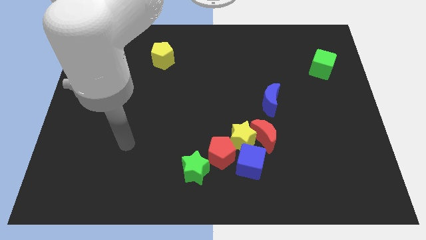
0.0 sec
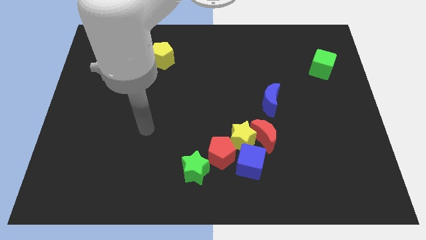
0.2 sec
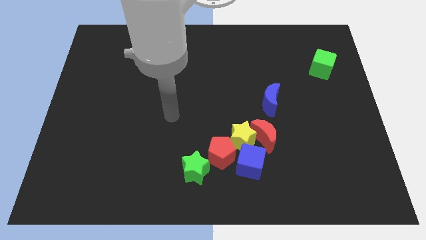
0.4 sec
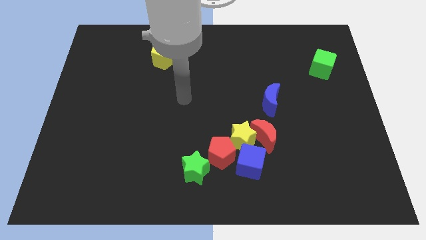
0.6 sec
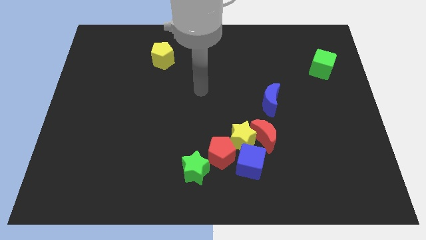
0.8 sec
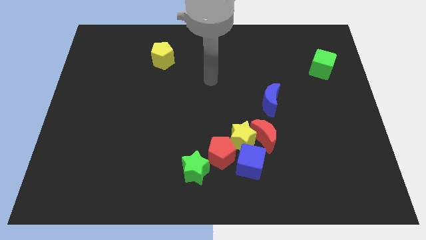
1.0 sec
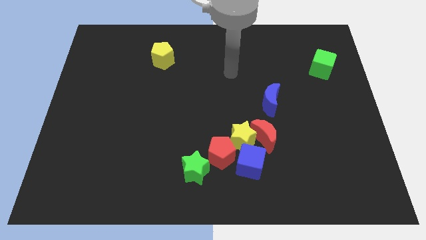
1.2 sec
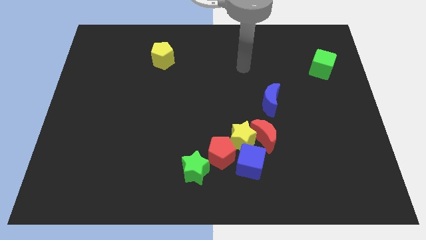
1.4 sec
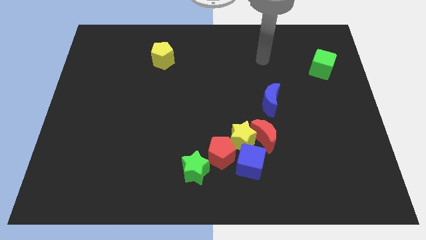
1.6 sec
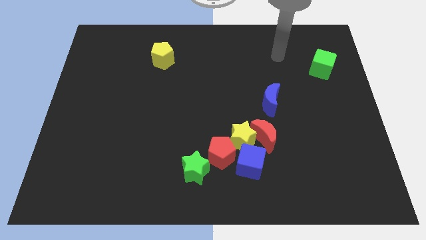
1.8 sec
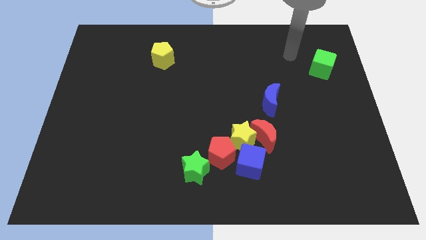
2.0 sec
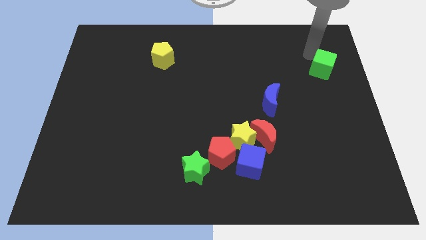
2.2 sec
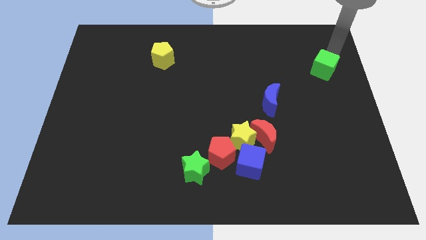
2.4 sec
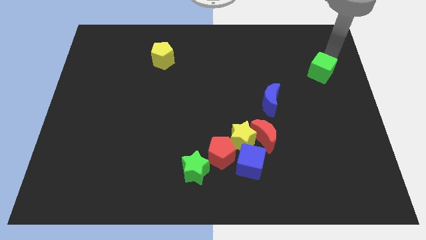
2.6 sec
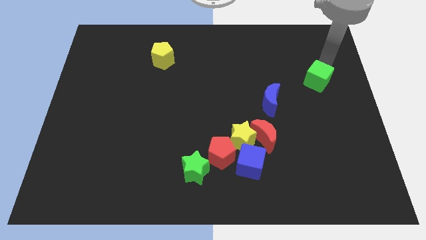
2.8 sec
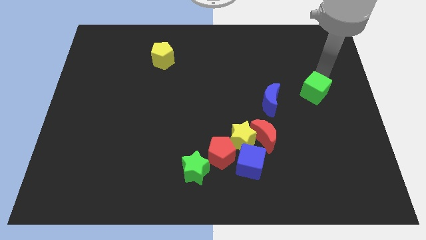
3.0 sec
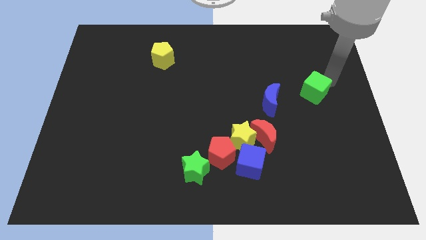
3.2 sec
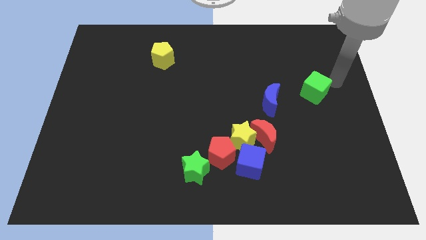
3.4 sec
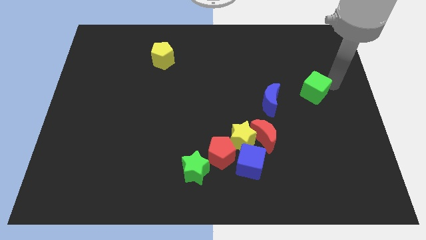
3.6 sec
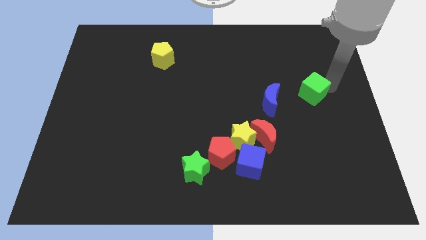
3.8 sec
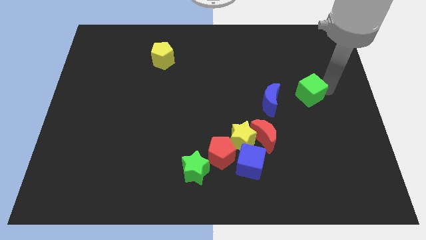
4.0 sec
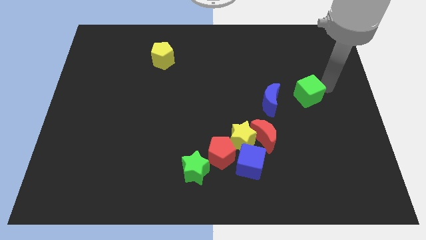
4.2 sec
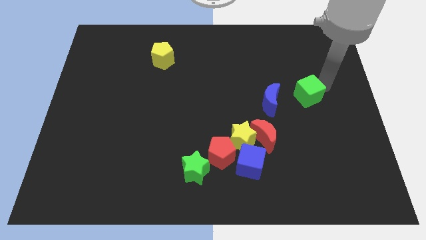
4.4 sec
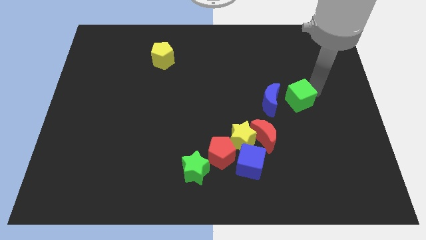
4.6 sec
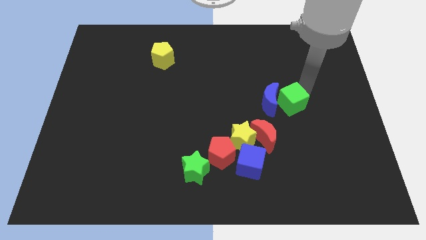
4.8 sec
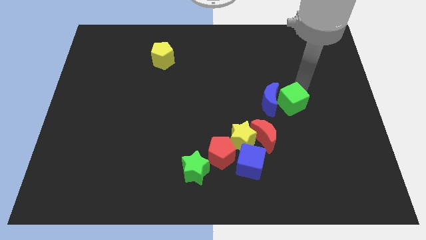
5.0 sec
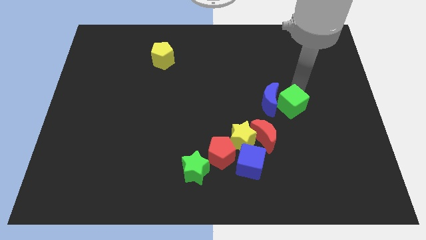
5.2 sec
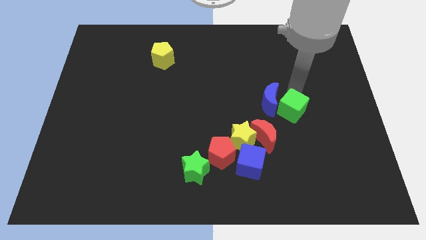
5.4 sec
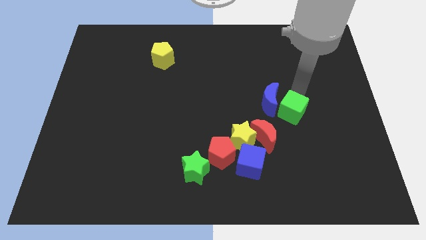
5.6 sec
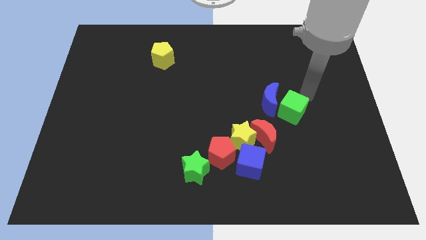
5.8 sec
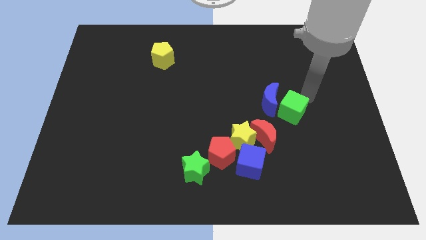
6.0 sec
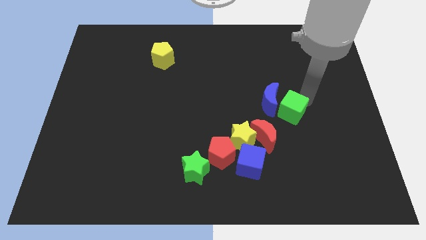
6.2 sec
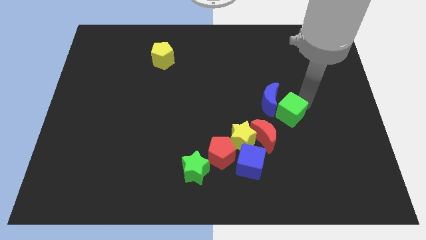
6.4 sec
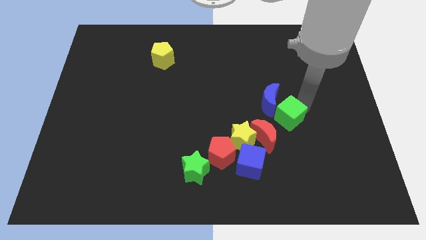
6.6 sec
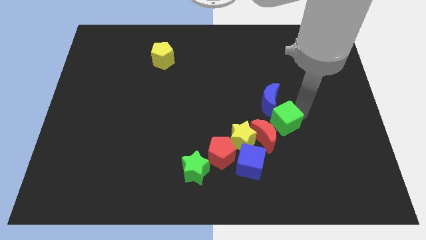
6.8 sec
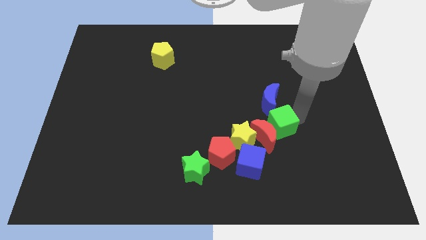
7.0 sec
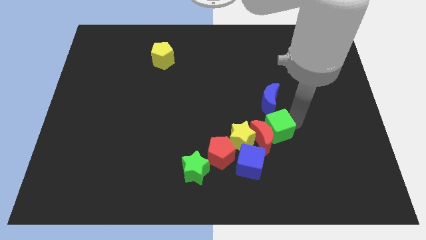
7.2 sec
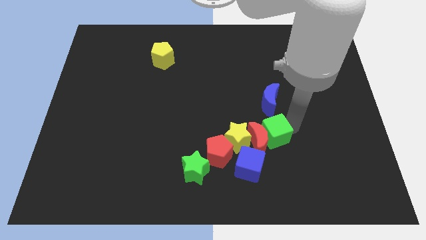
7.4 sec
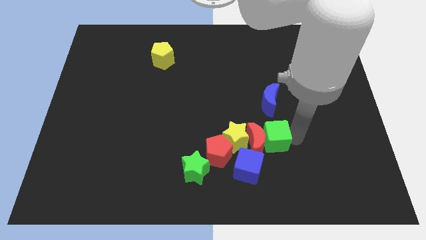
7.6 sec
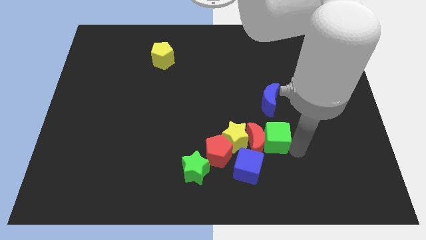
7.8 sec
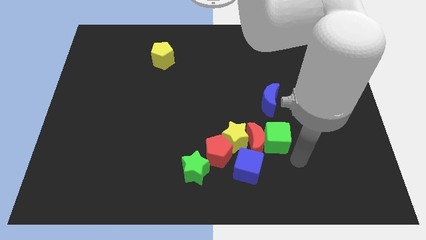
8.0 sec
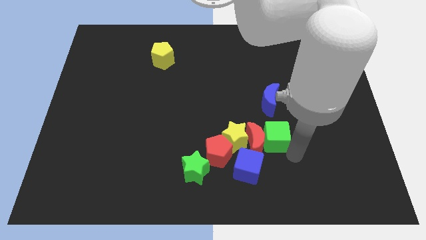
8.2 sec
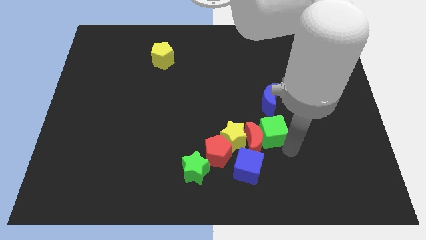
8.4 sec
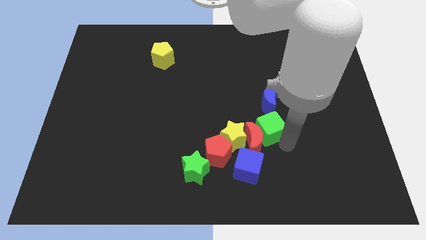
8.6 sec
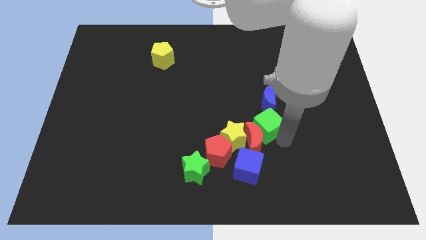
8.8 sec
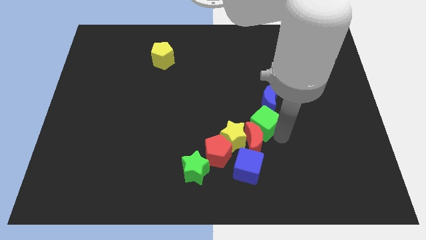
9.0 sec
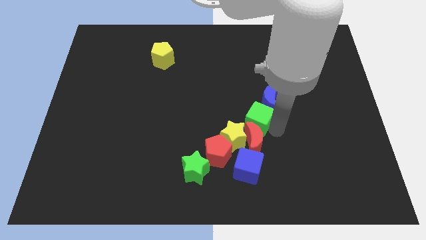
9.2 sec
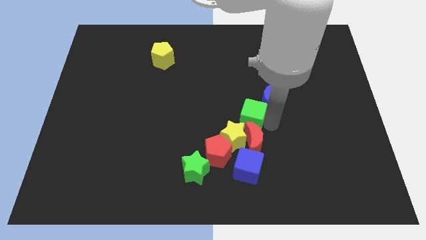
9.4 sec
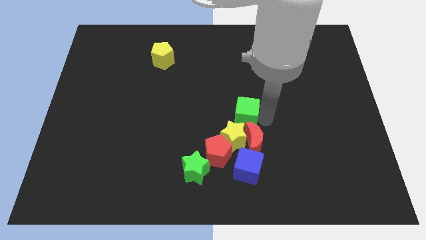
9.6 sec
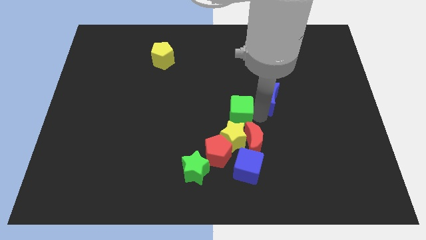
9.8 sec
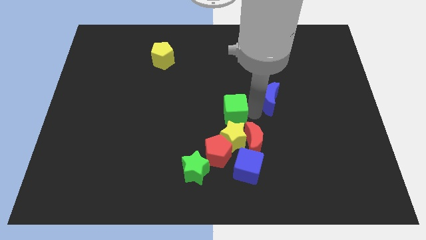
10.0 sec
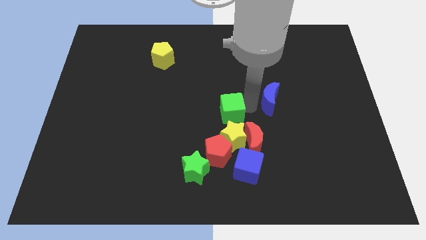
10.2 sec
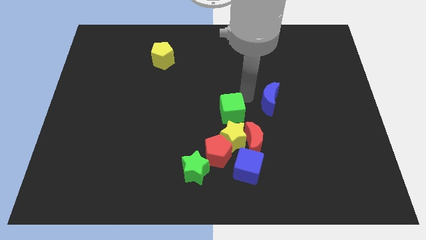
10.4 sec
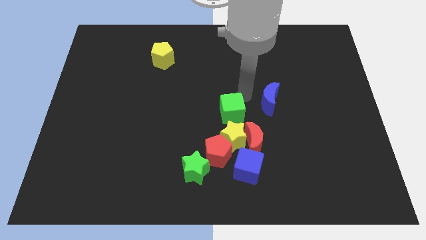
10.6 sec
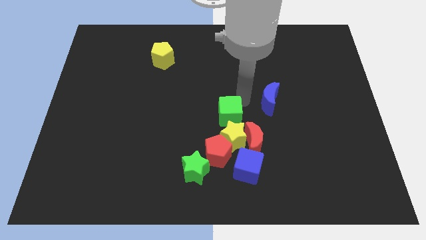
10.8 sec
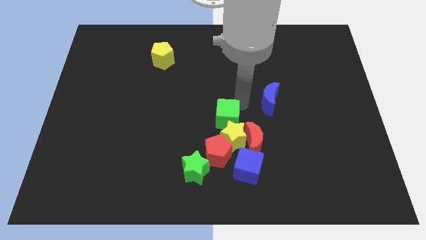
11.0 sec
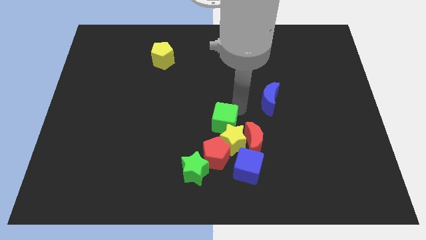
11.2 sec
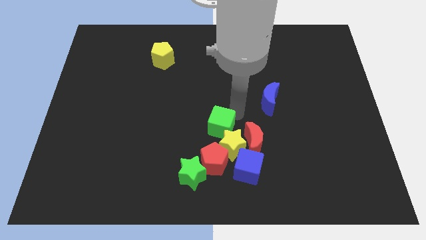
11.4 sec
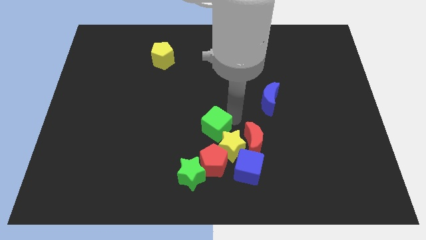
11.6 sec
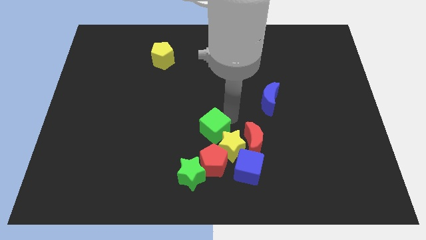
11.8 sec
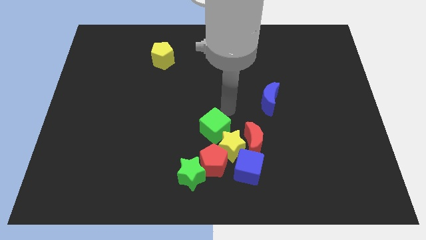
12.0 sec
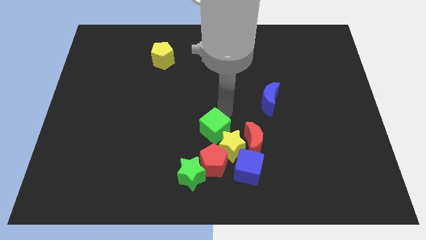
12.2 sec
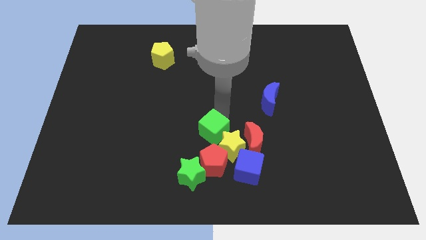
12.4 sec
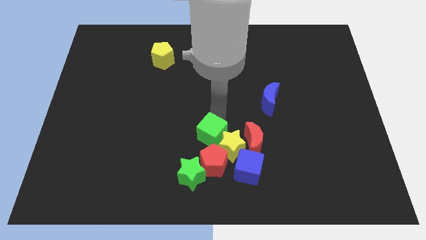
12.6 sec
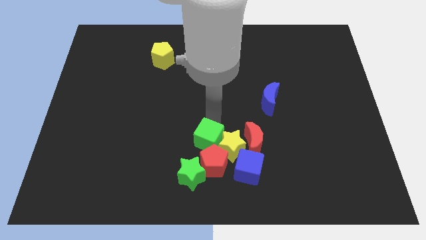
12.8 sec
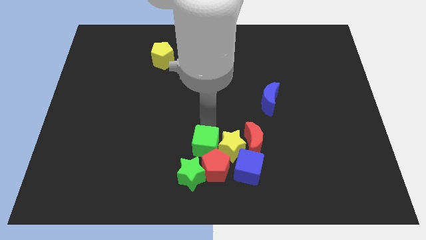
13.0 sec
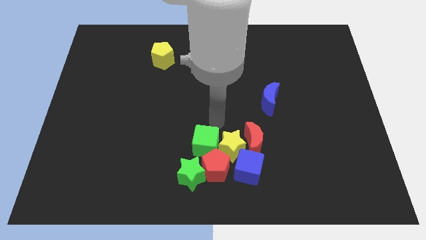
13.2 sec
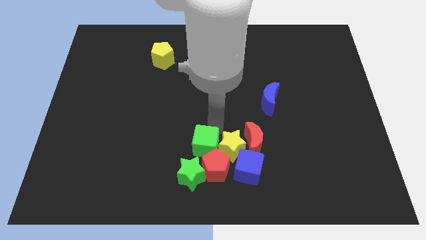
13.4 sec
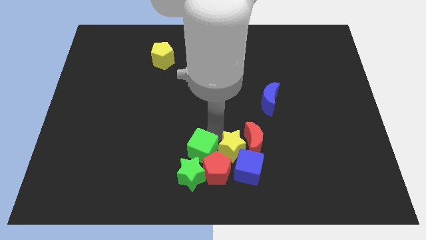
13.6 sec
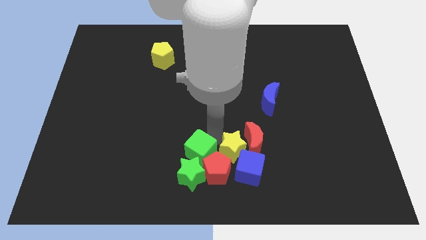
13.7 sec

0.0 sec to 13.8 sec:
push the green cube towards the green star
